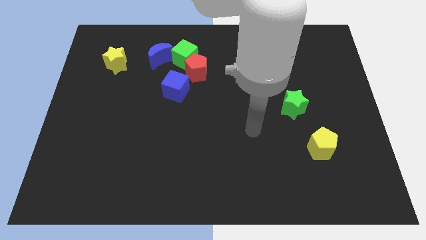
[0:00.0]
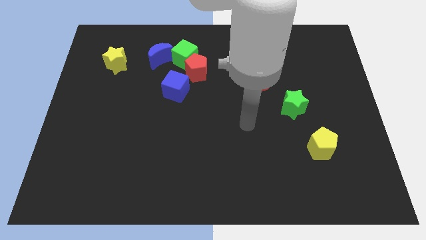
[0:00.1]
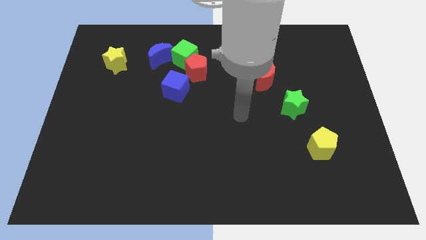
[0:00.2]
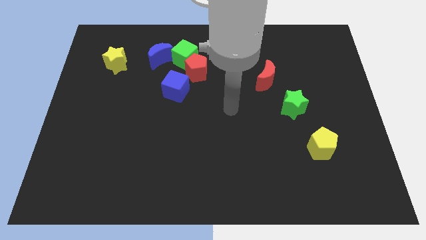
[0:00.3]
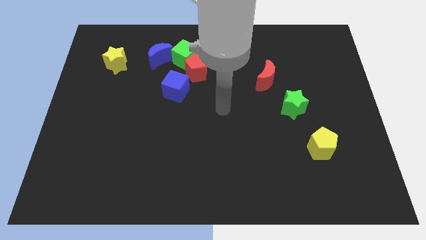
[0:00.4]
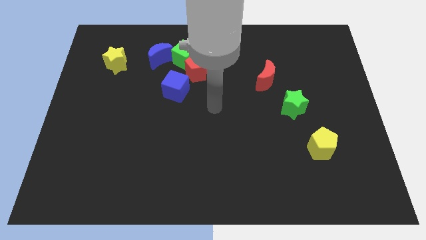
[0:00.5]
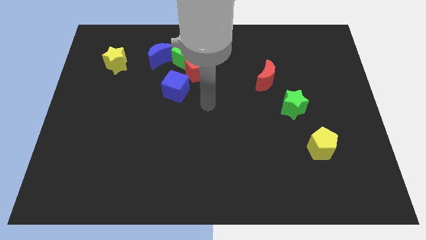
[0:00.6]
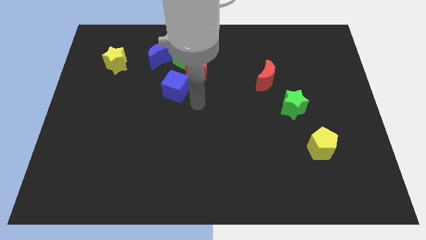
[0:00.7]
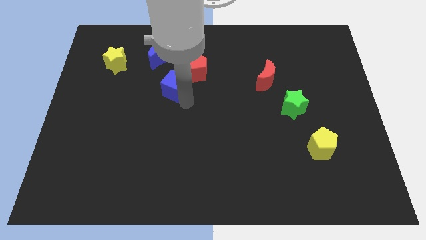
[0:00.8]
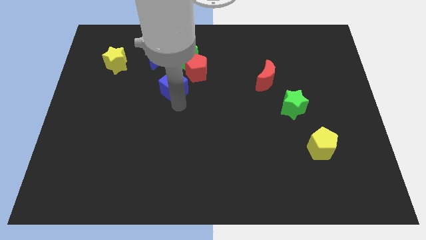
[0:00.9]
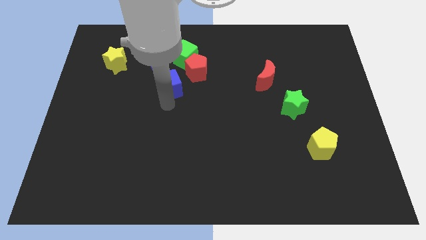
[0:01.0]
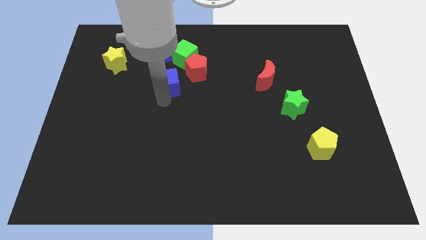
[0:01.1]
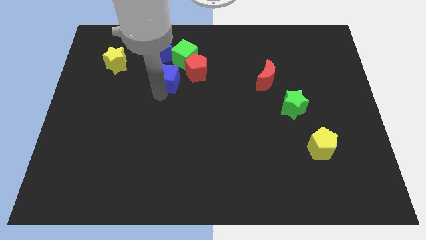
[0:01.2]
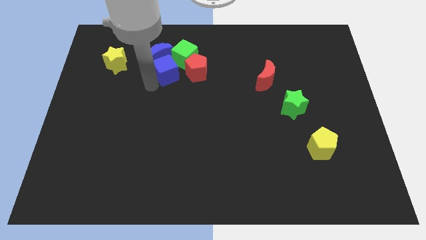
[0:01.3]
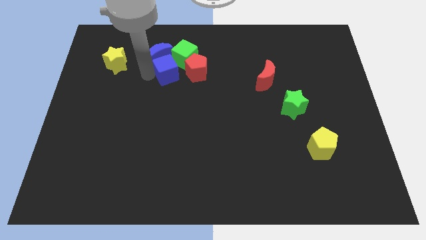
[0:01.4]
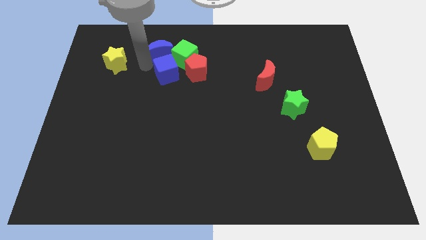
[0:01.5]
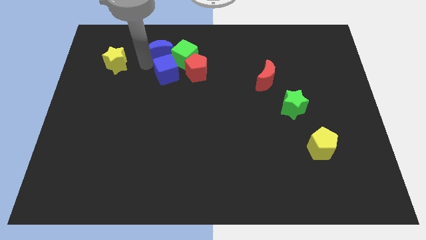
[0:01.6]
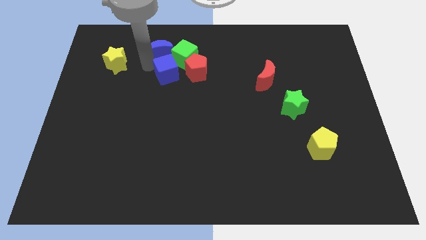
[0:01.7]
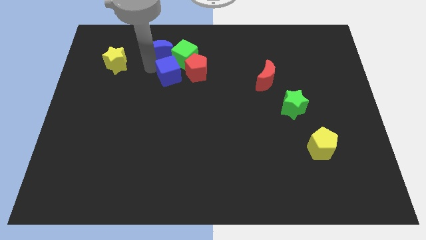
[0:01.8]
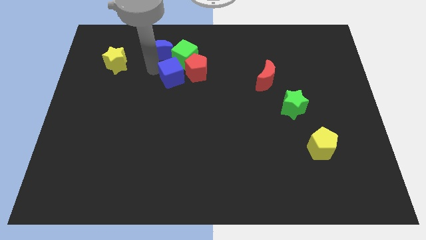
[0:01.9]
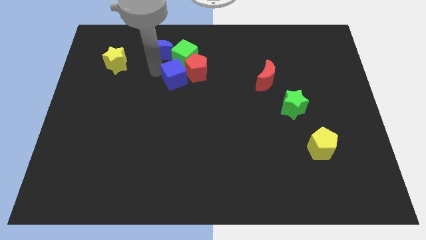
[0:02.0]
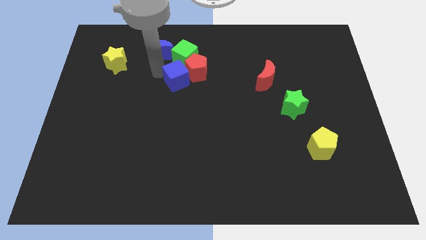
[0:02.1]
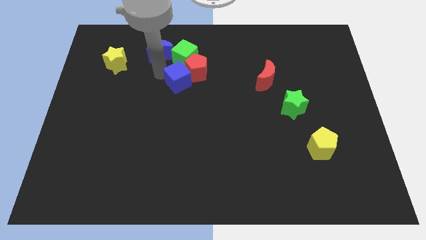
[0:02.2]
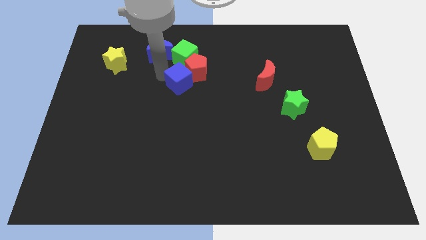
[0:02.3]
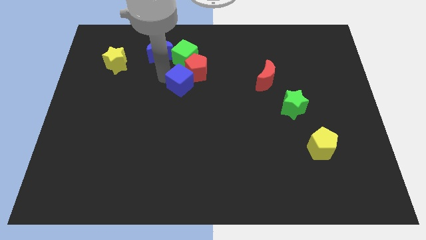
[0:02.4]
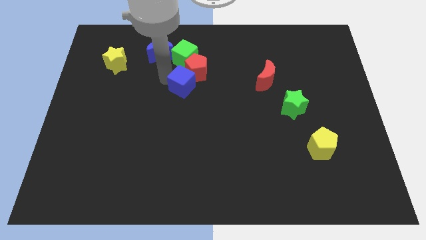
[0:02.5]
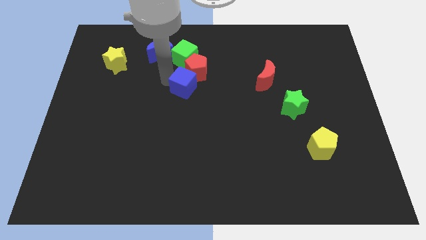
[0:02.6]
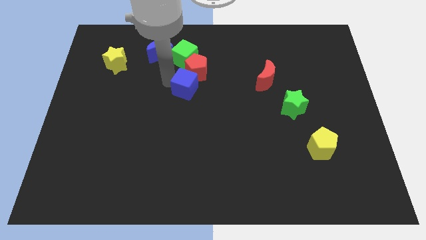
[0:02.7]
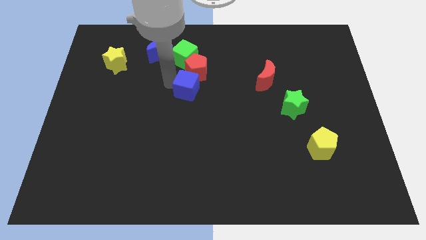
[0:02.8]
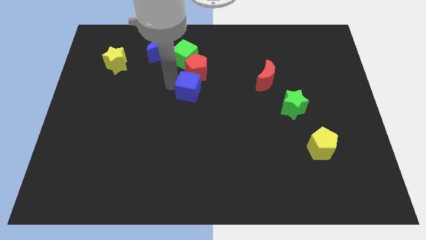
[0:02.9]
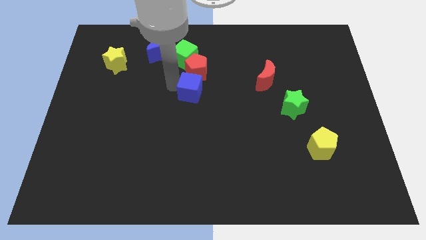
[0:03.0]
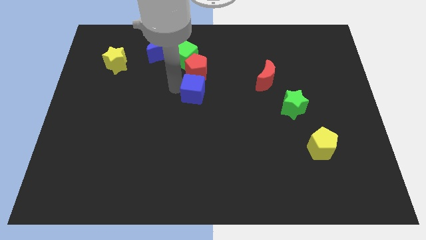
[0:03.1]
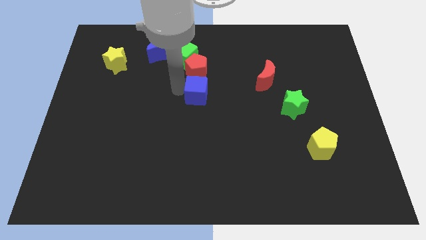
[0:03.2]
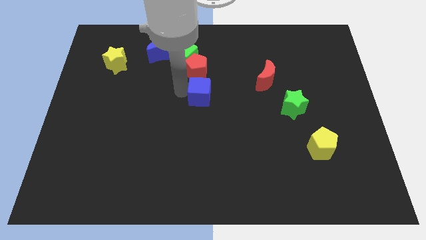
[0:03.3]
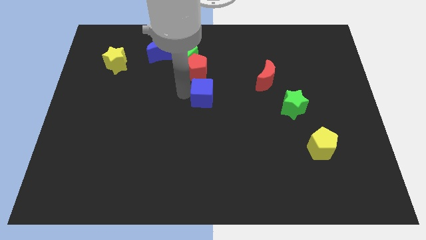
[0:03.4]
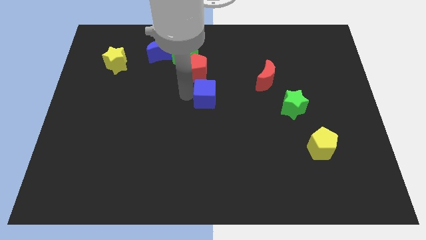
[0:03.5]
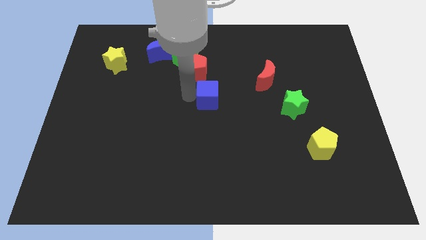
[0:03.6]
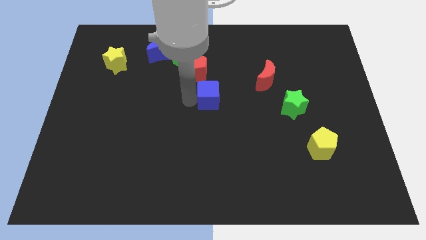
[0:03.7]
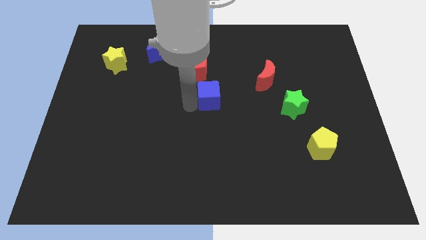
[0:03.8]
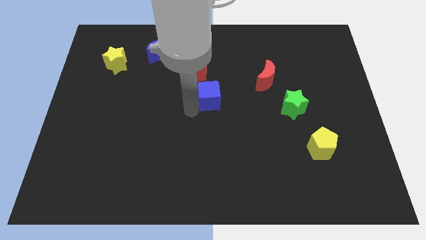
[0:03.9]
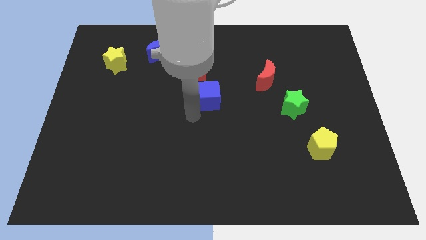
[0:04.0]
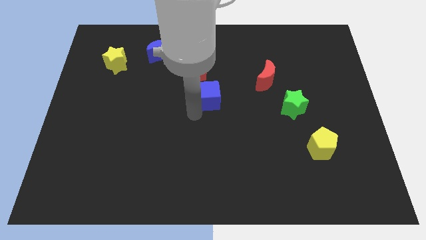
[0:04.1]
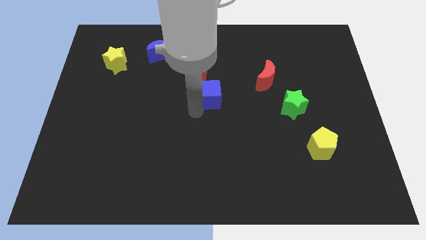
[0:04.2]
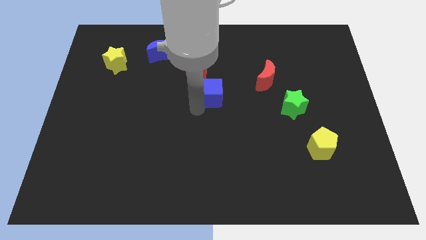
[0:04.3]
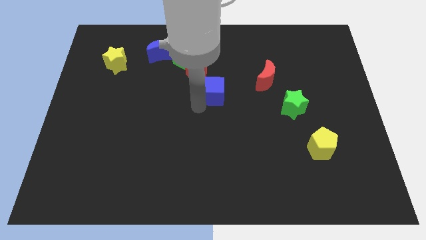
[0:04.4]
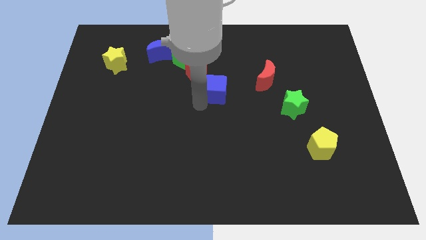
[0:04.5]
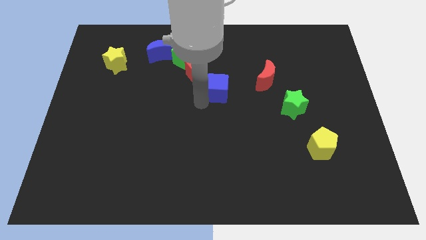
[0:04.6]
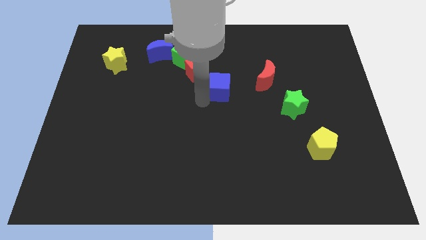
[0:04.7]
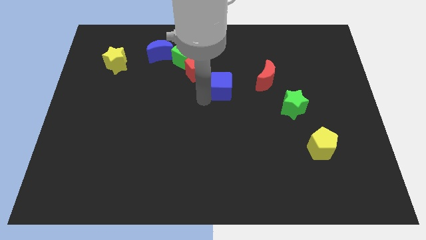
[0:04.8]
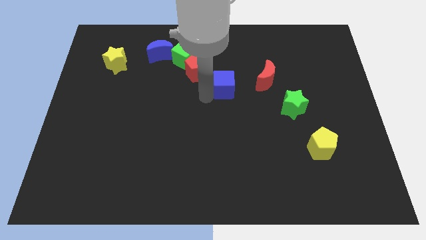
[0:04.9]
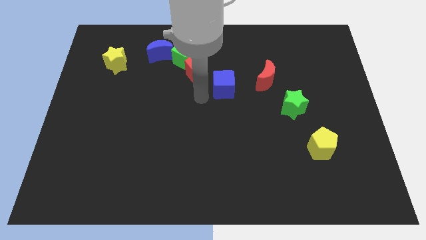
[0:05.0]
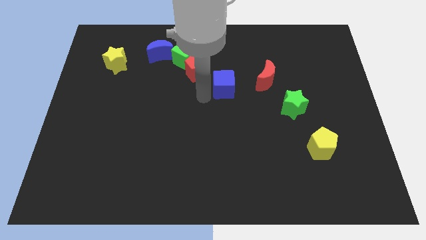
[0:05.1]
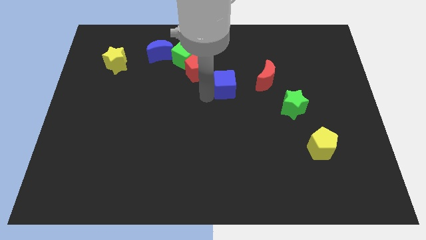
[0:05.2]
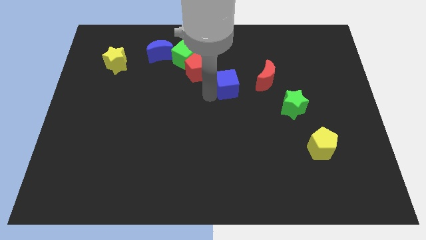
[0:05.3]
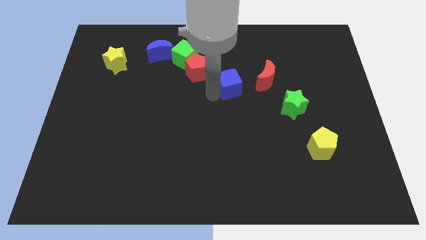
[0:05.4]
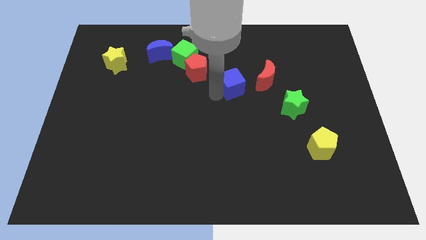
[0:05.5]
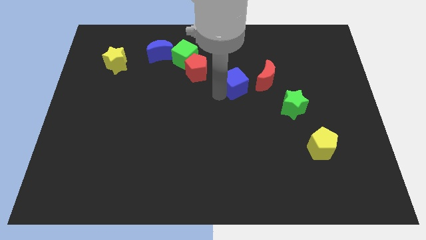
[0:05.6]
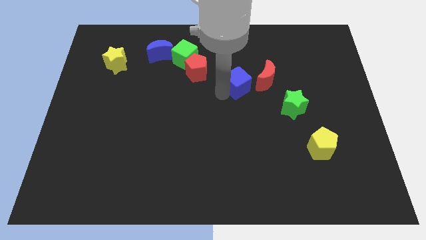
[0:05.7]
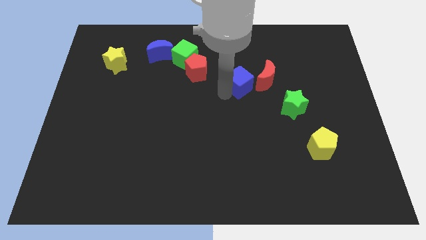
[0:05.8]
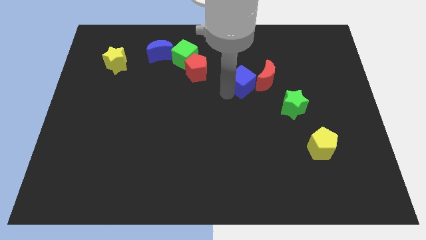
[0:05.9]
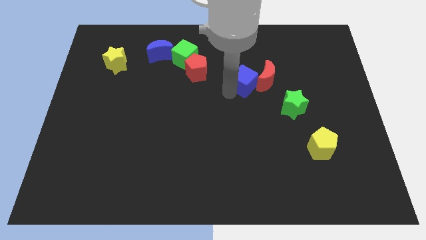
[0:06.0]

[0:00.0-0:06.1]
put the blue cube to the red moon

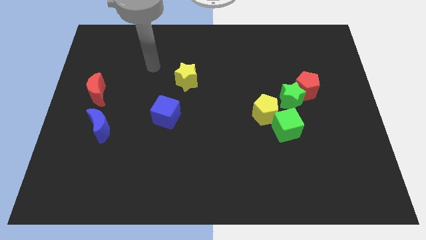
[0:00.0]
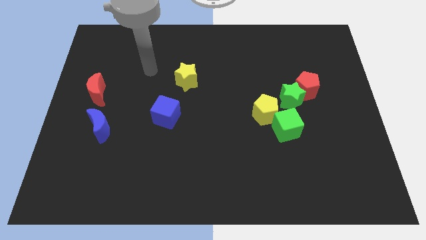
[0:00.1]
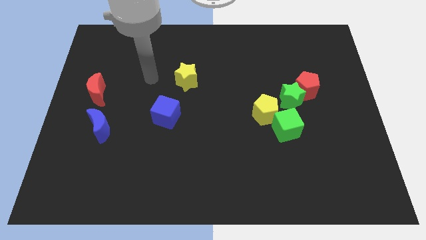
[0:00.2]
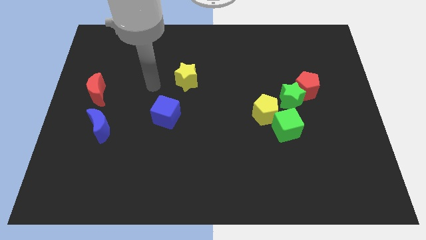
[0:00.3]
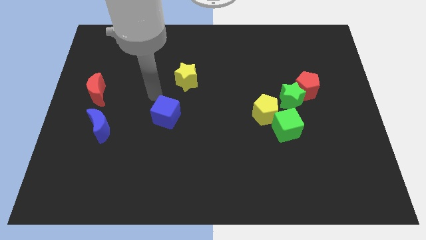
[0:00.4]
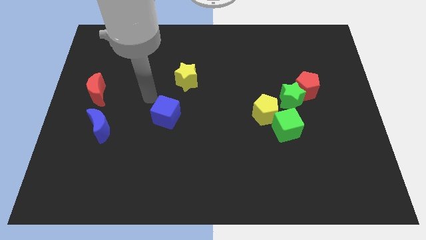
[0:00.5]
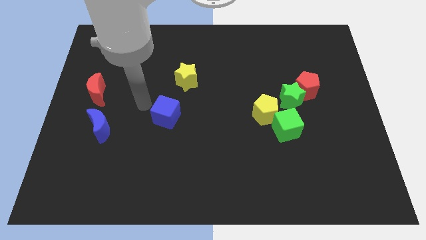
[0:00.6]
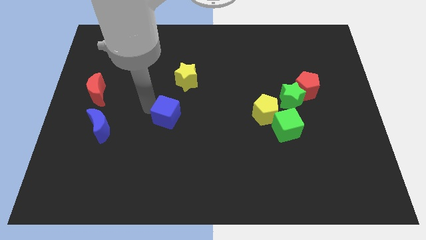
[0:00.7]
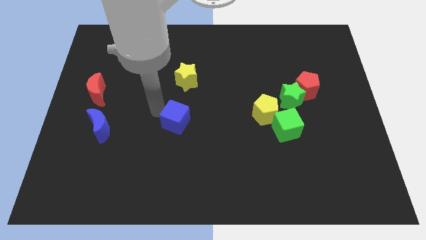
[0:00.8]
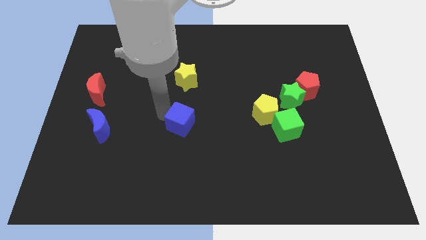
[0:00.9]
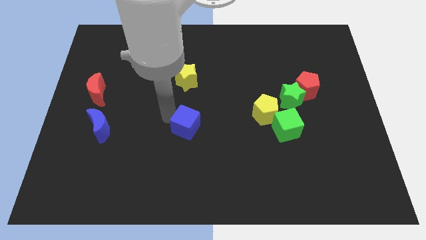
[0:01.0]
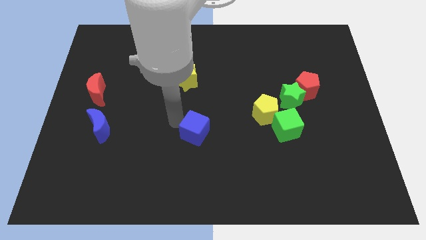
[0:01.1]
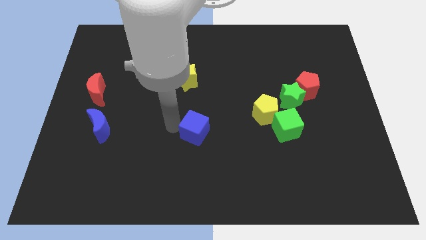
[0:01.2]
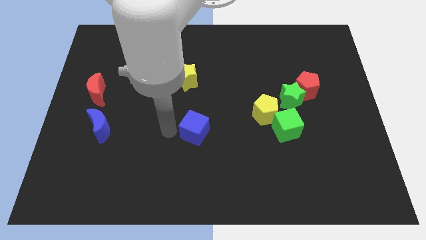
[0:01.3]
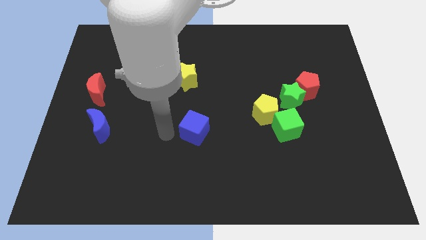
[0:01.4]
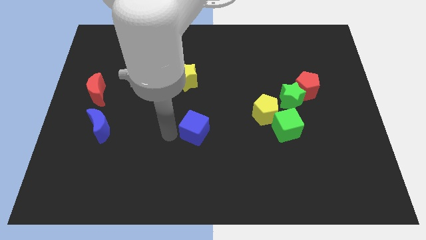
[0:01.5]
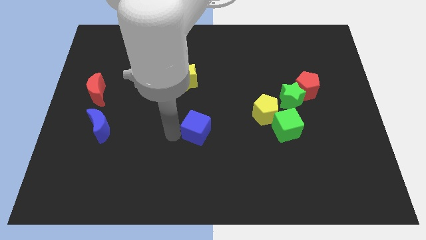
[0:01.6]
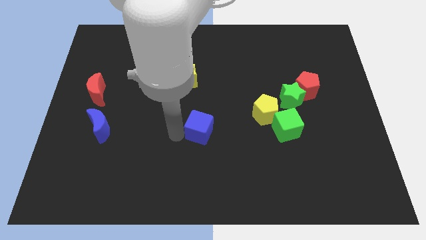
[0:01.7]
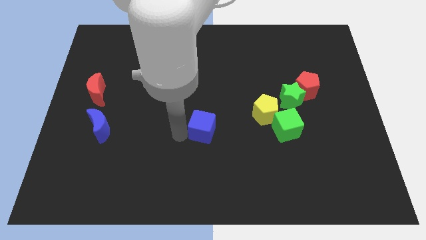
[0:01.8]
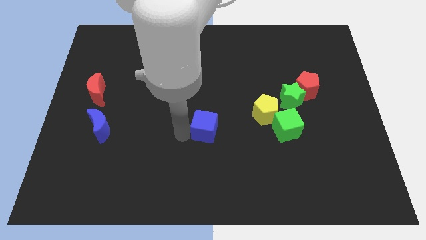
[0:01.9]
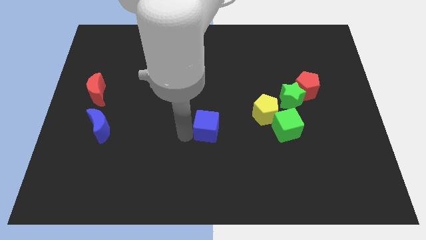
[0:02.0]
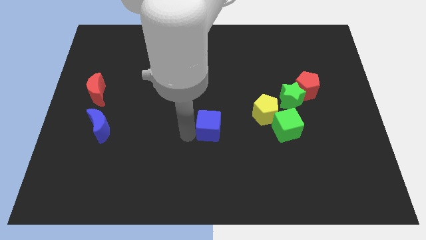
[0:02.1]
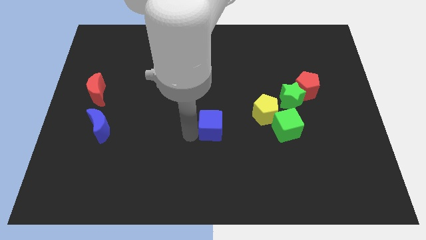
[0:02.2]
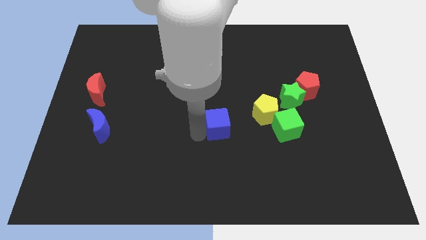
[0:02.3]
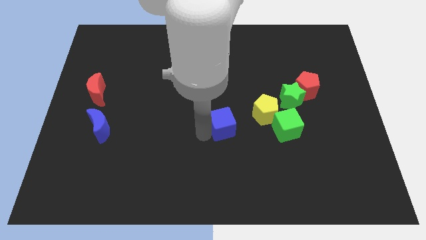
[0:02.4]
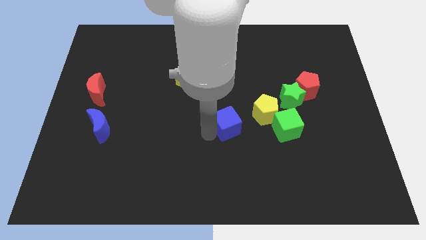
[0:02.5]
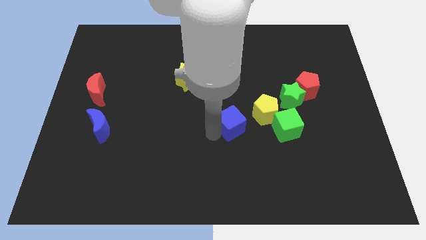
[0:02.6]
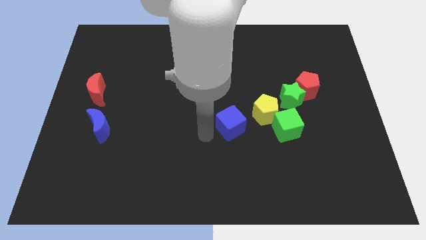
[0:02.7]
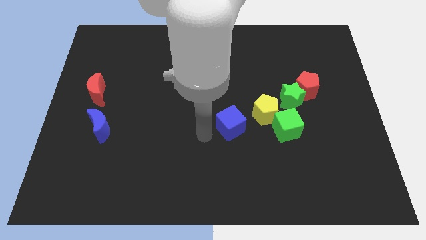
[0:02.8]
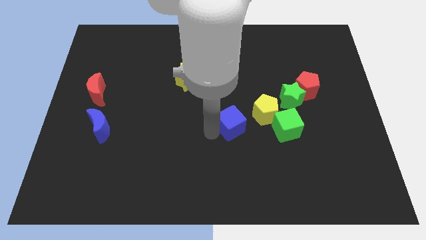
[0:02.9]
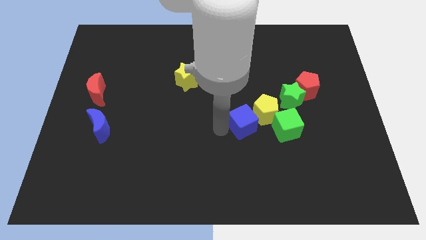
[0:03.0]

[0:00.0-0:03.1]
put the blue cube to the yellow pentagon
